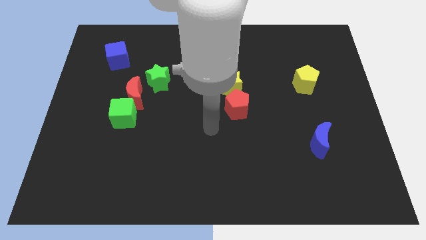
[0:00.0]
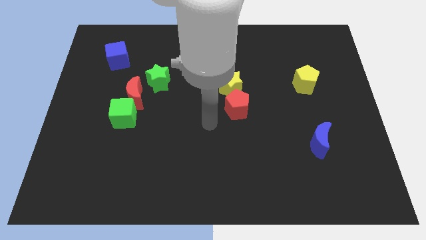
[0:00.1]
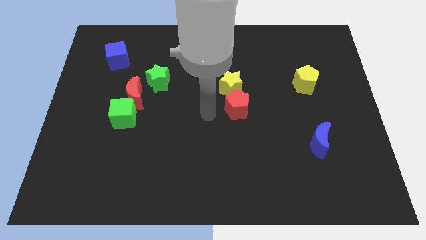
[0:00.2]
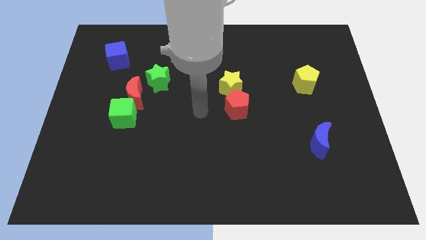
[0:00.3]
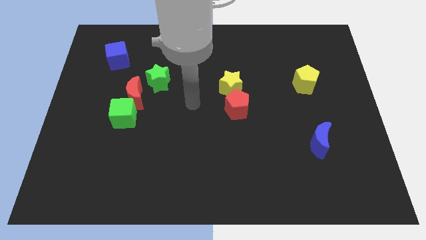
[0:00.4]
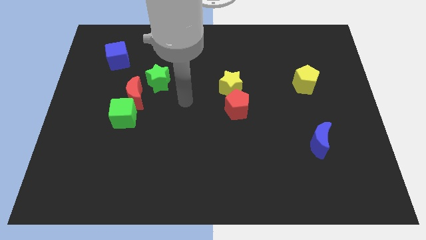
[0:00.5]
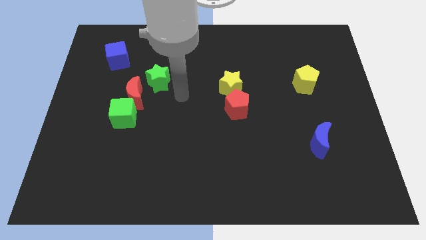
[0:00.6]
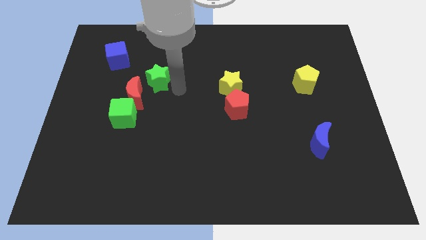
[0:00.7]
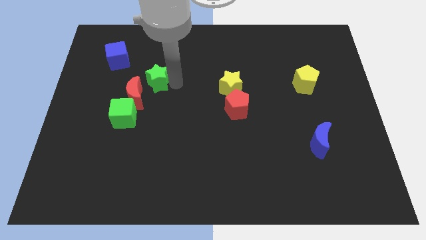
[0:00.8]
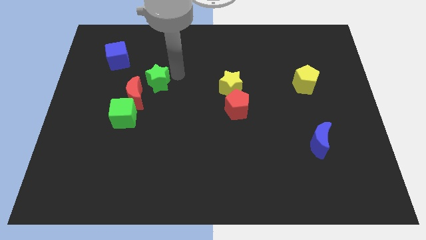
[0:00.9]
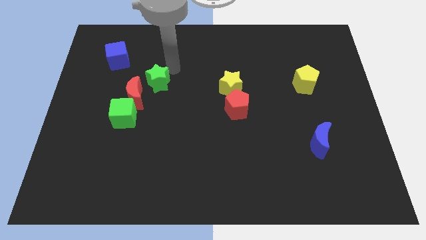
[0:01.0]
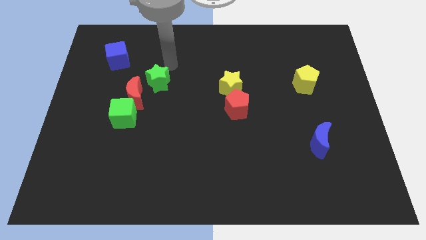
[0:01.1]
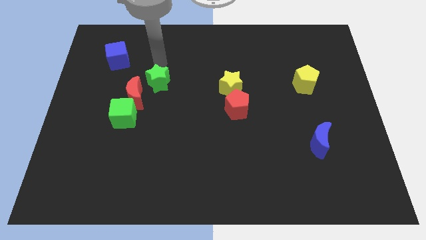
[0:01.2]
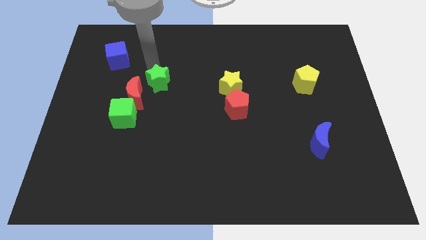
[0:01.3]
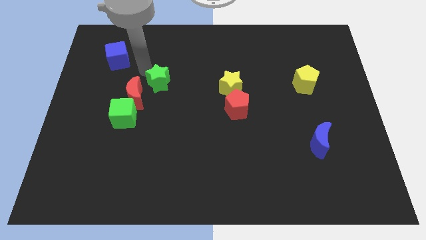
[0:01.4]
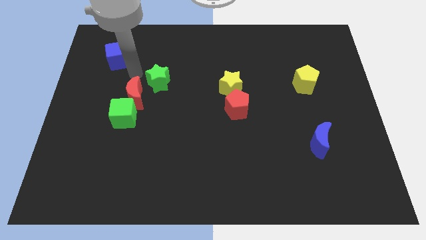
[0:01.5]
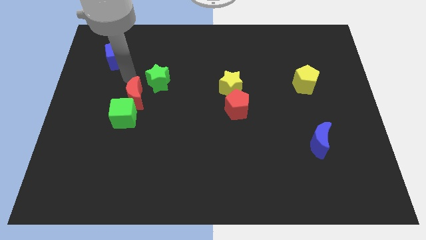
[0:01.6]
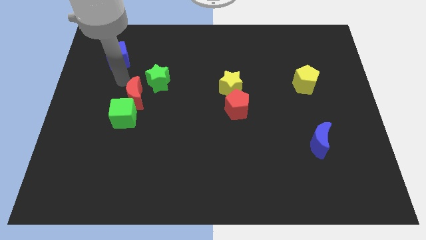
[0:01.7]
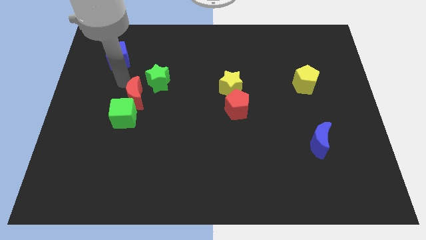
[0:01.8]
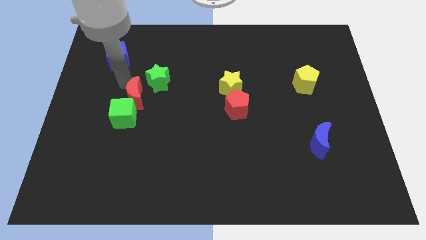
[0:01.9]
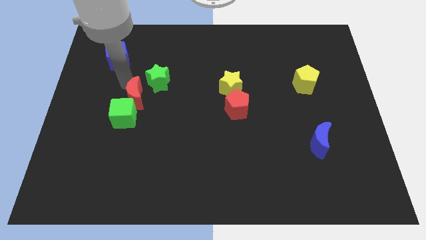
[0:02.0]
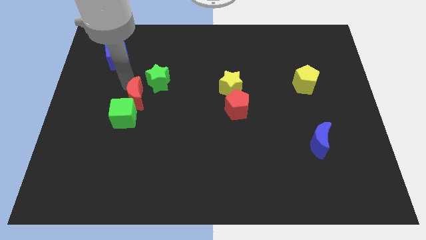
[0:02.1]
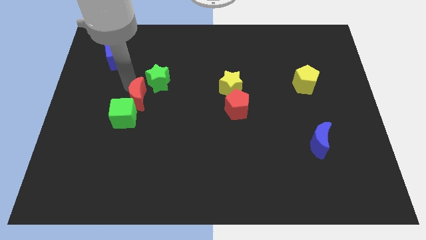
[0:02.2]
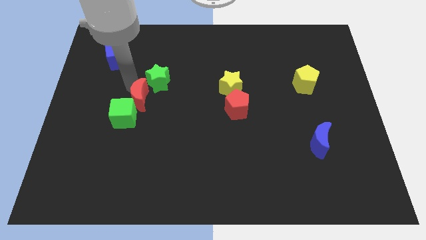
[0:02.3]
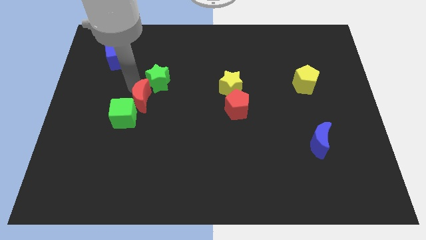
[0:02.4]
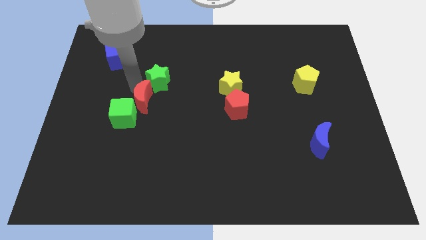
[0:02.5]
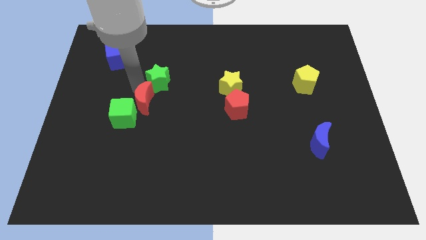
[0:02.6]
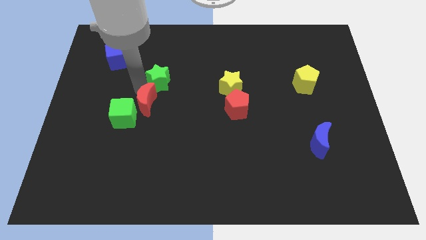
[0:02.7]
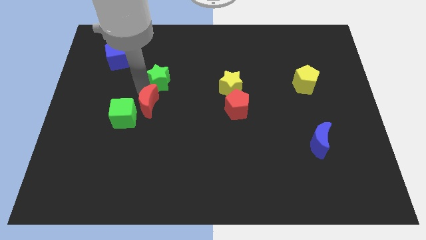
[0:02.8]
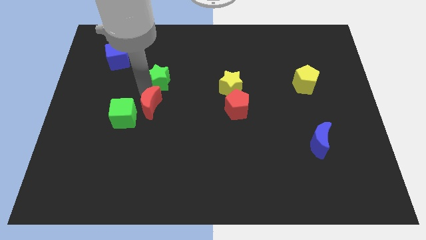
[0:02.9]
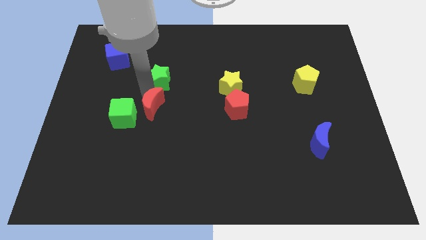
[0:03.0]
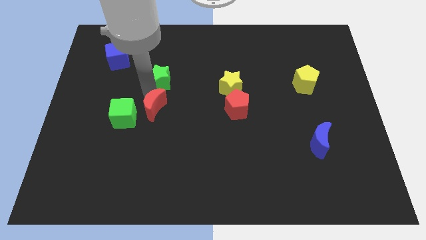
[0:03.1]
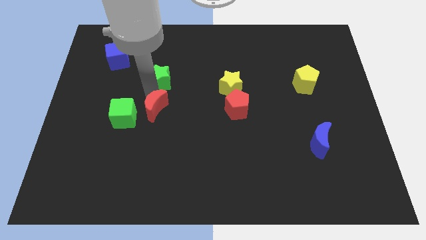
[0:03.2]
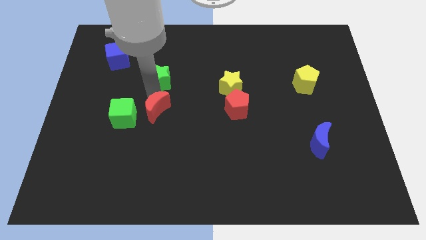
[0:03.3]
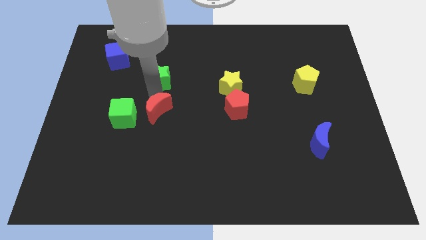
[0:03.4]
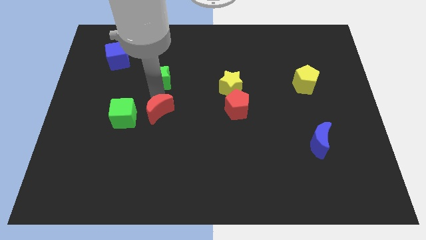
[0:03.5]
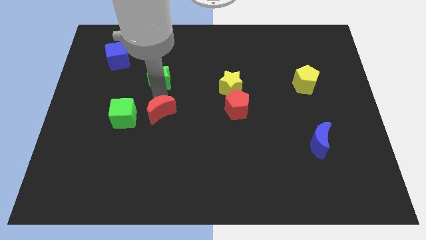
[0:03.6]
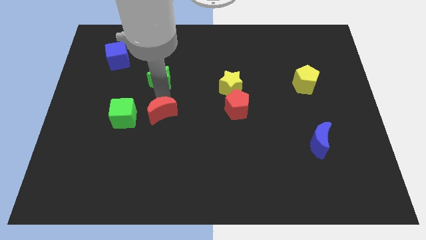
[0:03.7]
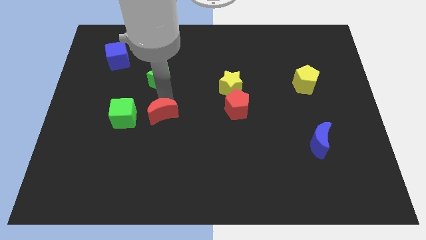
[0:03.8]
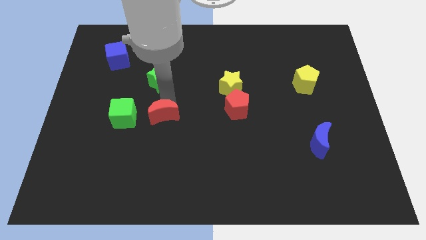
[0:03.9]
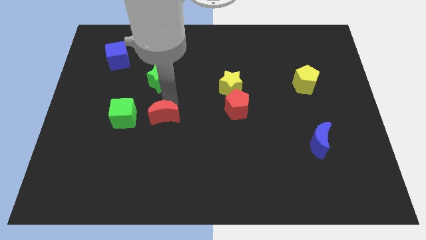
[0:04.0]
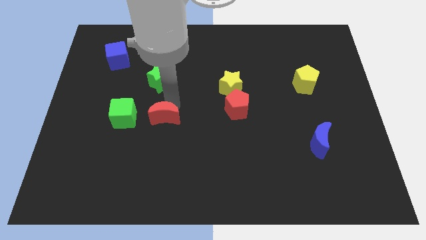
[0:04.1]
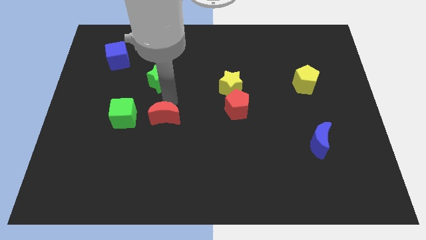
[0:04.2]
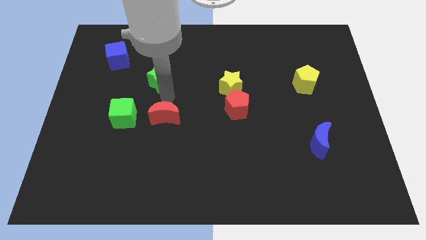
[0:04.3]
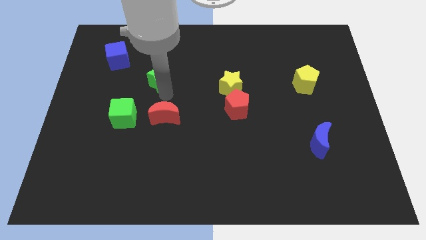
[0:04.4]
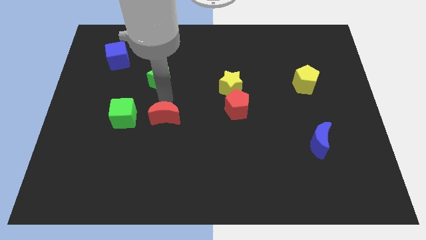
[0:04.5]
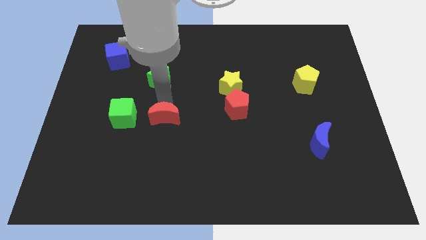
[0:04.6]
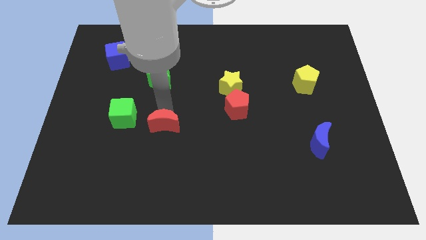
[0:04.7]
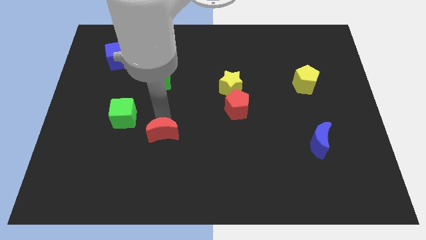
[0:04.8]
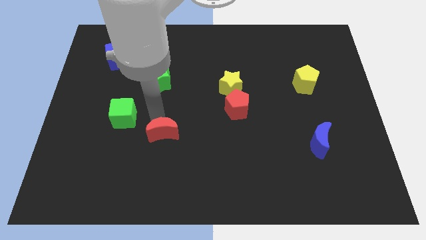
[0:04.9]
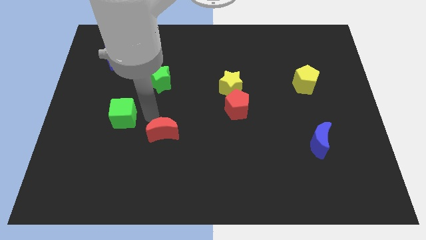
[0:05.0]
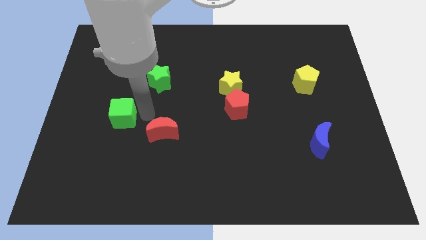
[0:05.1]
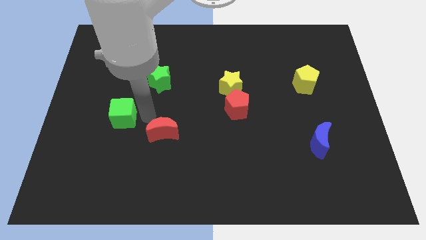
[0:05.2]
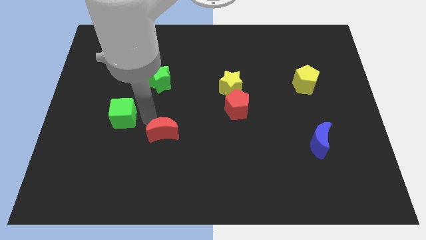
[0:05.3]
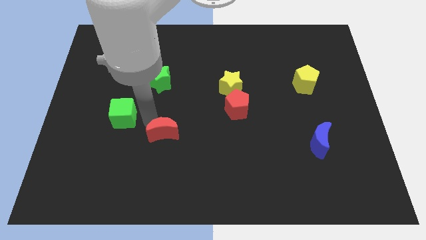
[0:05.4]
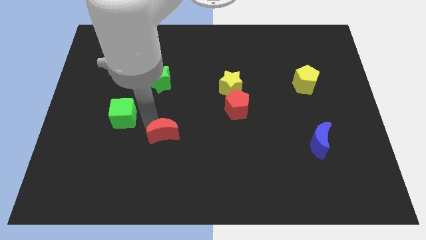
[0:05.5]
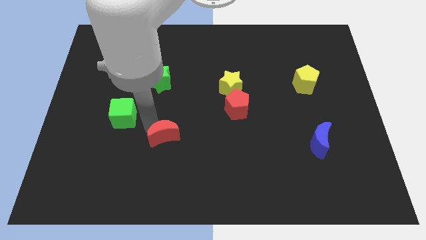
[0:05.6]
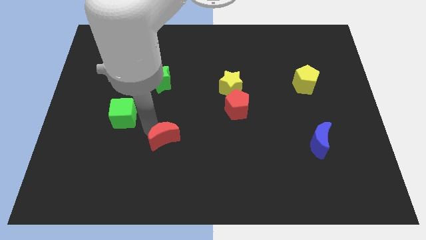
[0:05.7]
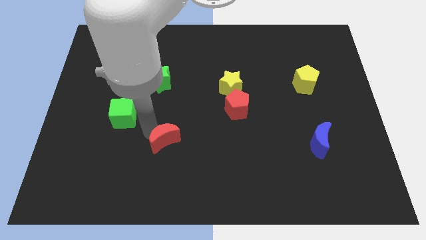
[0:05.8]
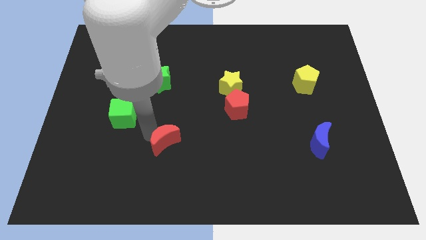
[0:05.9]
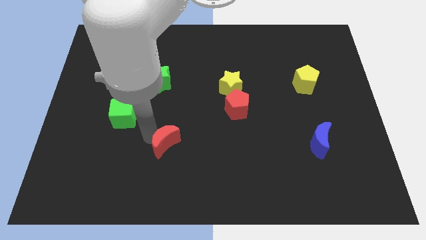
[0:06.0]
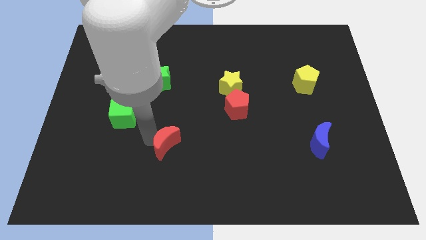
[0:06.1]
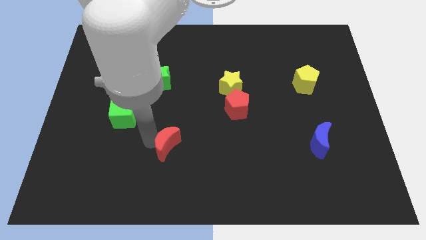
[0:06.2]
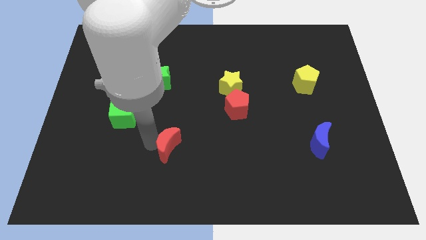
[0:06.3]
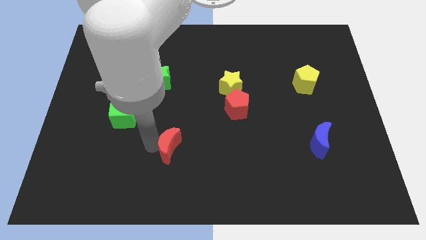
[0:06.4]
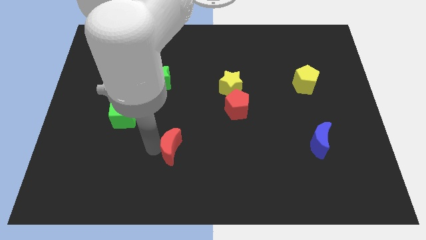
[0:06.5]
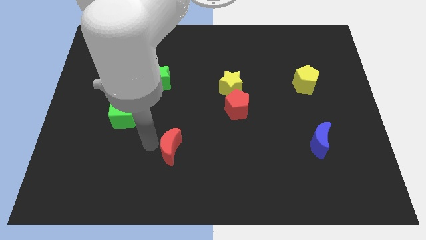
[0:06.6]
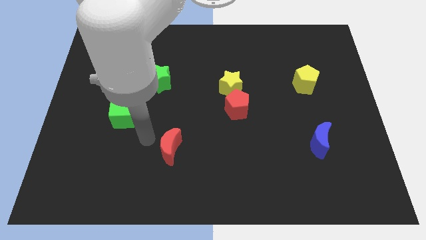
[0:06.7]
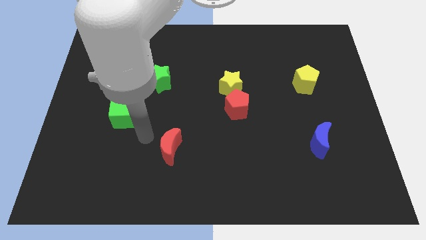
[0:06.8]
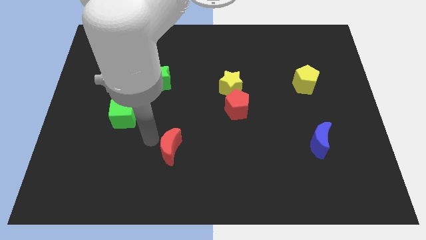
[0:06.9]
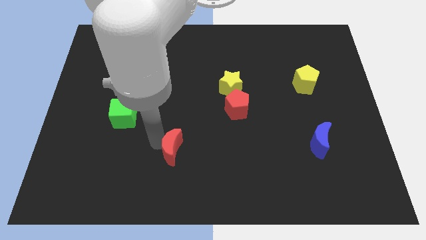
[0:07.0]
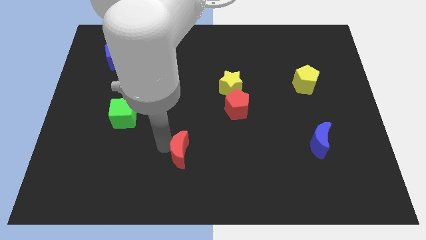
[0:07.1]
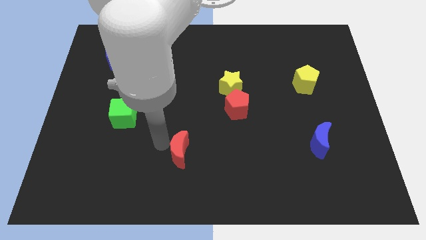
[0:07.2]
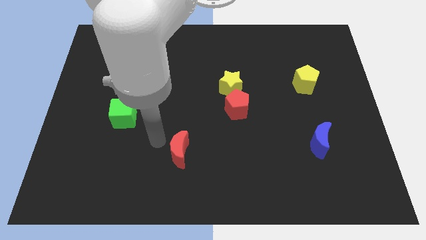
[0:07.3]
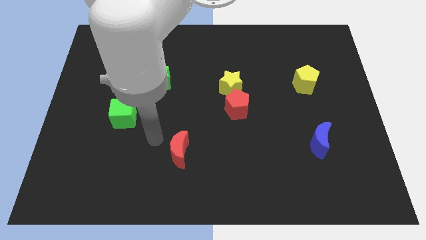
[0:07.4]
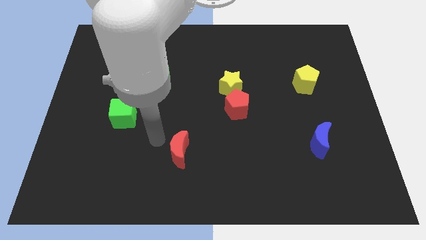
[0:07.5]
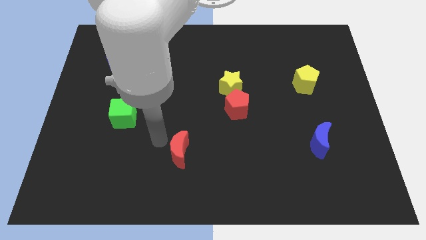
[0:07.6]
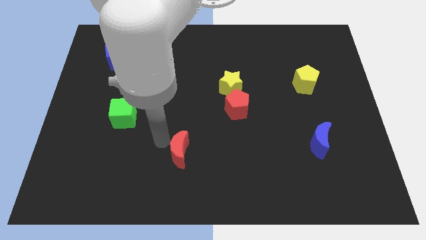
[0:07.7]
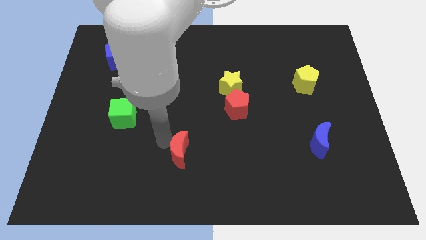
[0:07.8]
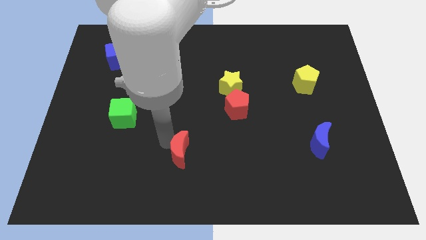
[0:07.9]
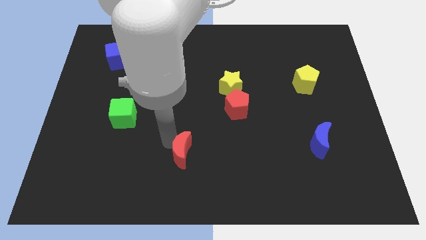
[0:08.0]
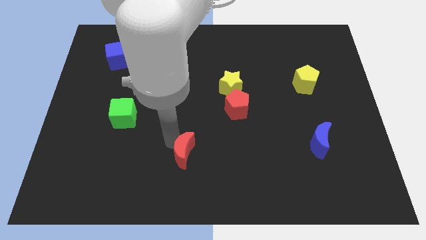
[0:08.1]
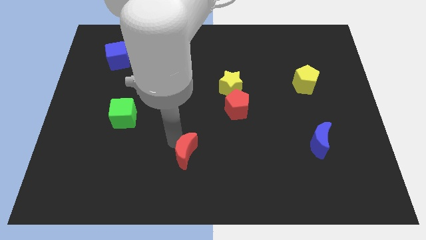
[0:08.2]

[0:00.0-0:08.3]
slide the red moon down and to the right
